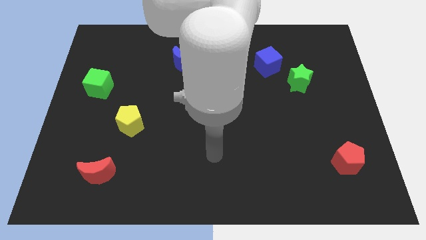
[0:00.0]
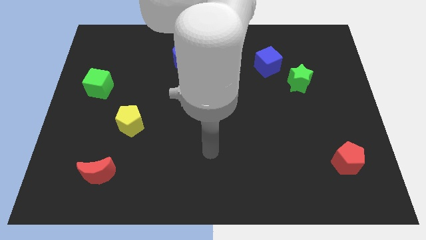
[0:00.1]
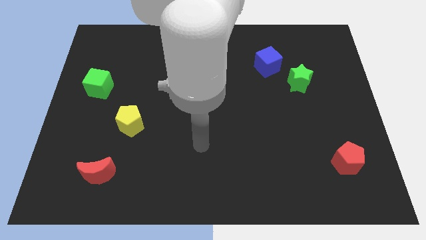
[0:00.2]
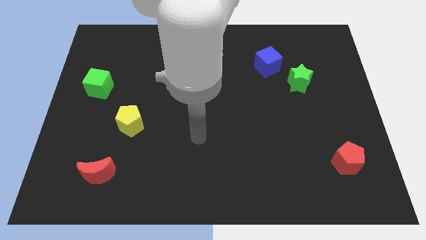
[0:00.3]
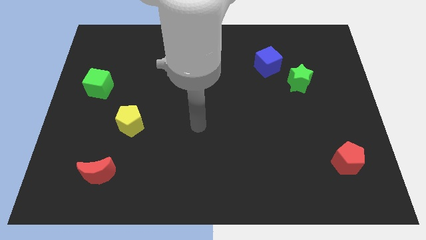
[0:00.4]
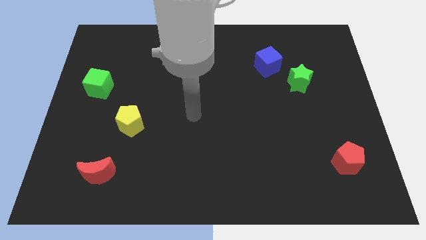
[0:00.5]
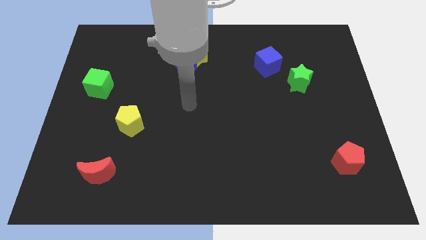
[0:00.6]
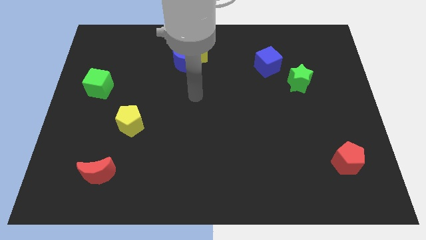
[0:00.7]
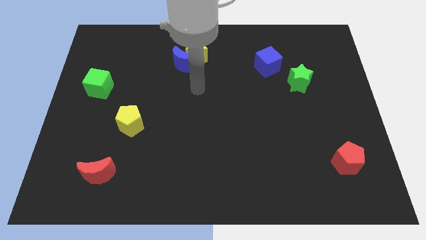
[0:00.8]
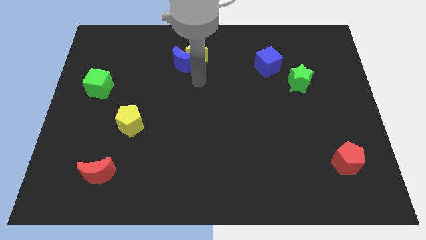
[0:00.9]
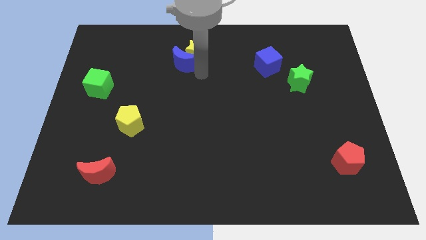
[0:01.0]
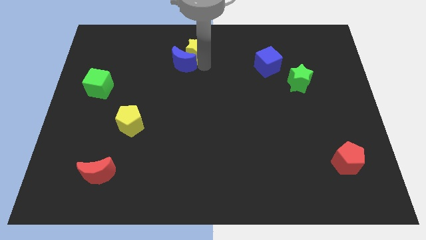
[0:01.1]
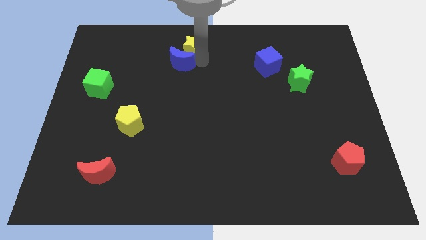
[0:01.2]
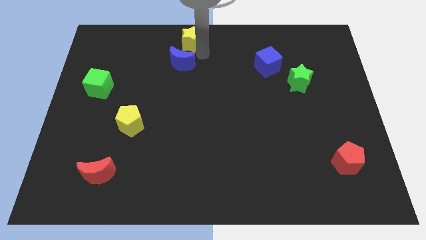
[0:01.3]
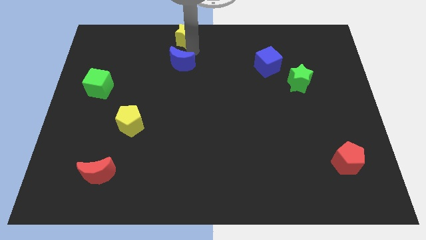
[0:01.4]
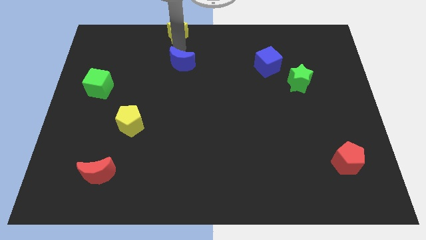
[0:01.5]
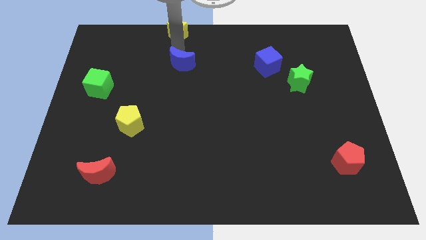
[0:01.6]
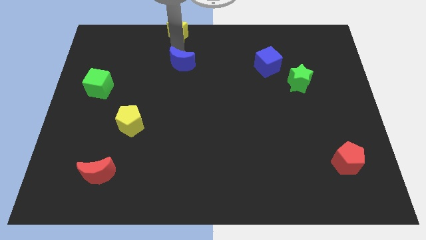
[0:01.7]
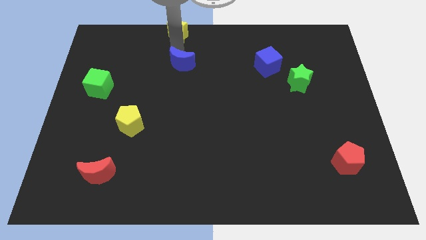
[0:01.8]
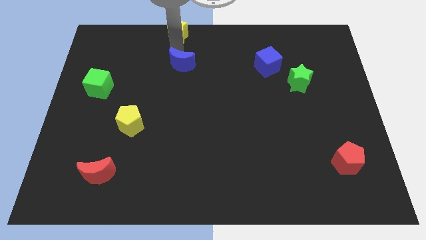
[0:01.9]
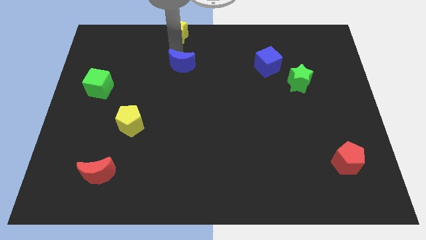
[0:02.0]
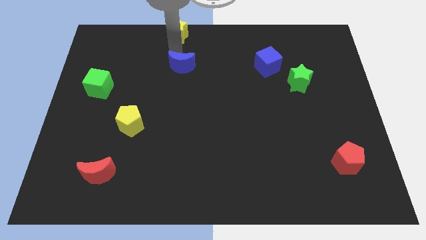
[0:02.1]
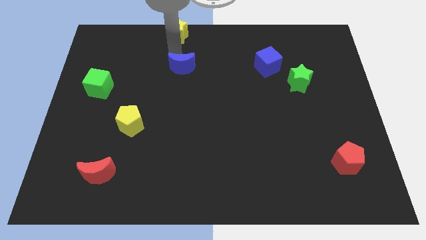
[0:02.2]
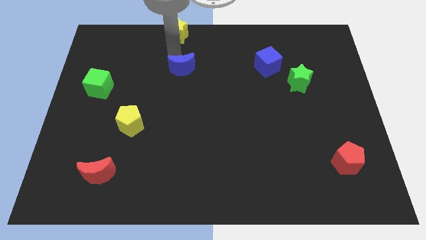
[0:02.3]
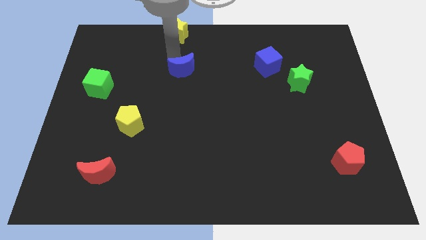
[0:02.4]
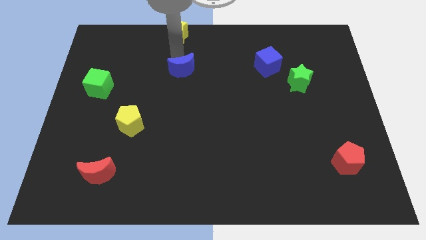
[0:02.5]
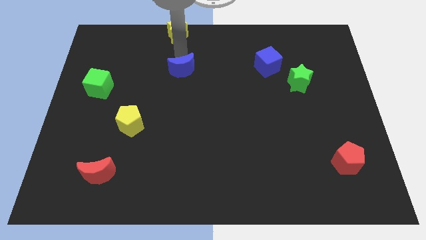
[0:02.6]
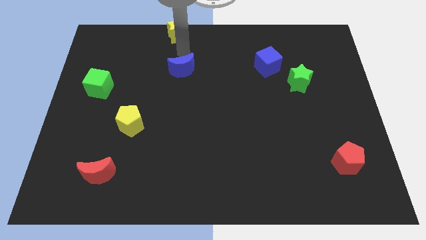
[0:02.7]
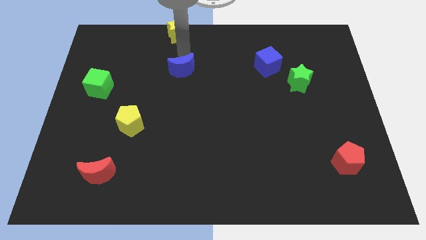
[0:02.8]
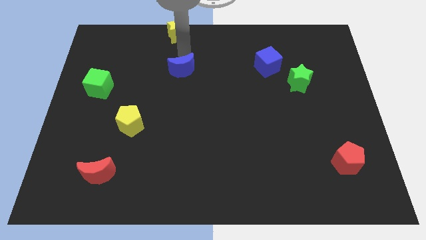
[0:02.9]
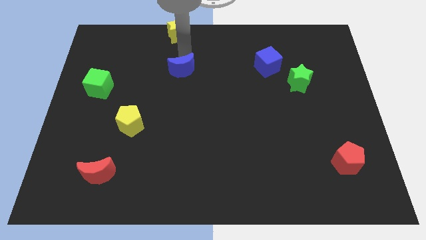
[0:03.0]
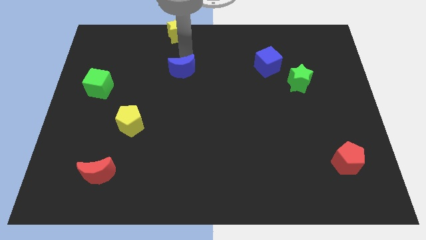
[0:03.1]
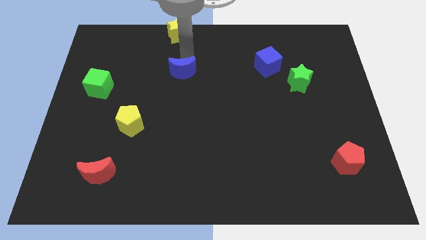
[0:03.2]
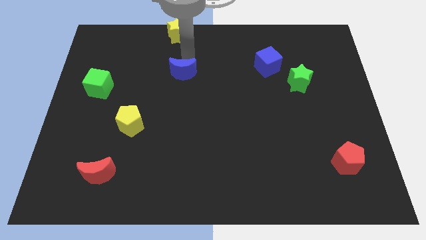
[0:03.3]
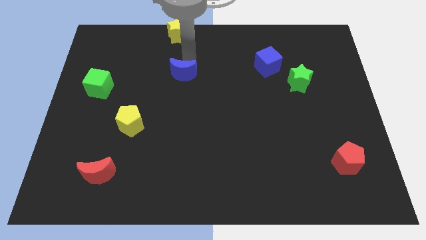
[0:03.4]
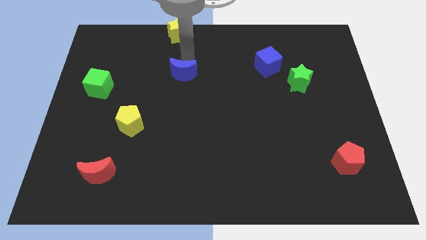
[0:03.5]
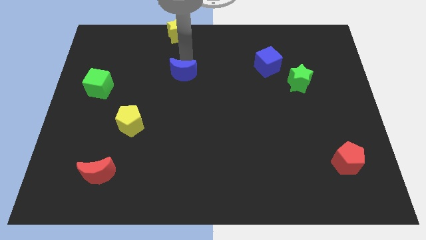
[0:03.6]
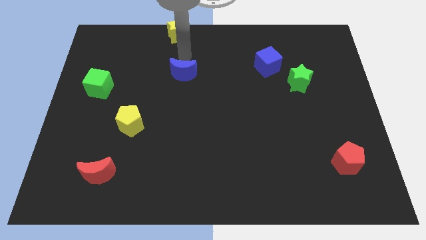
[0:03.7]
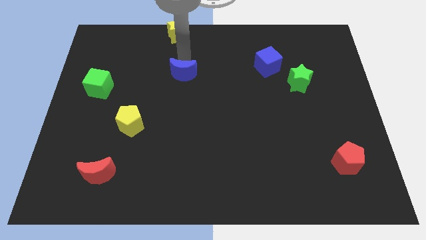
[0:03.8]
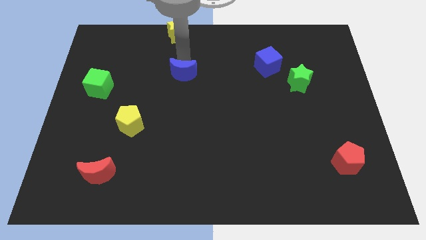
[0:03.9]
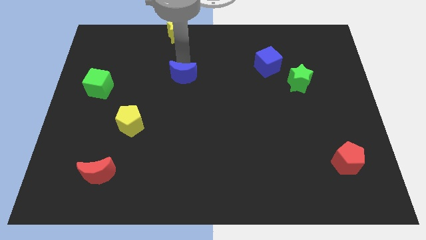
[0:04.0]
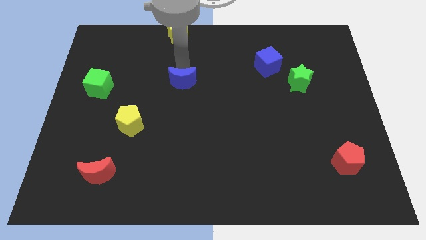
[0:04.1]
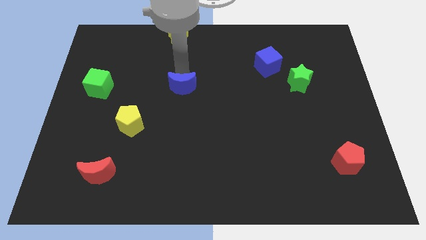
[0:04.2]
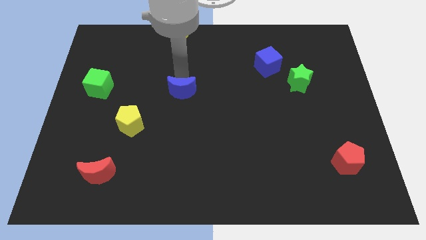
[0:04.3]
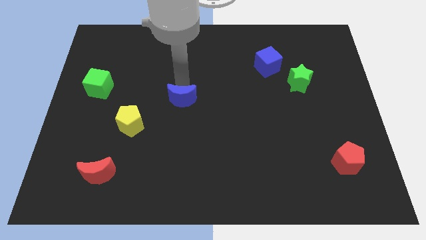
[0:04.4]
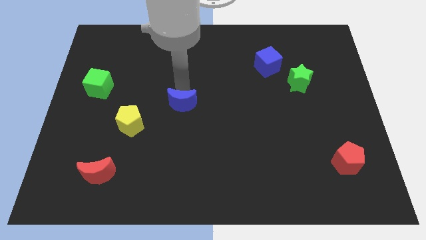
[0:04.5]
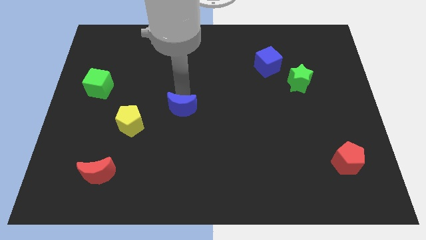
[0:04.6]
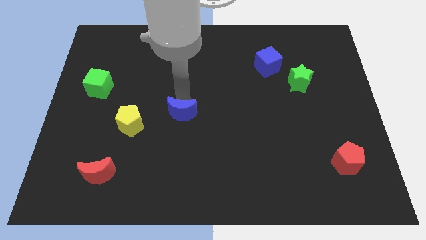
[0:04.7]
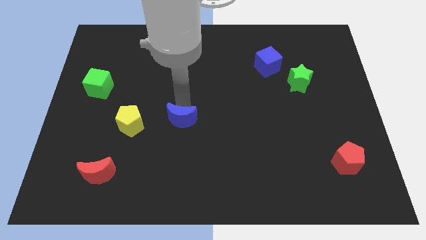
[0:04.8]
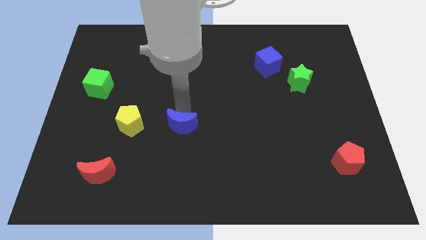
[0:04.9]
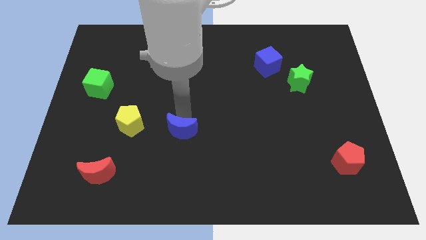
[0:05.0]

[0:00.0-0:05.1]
slide the blue moon downwards

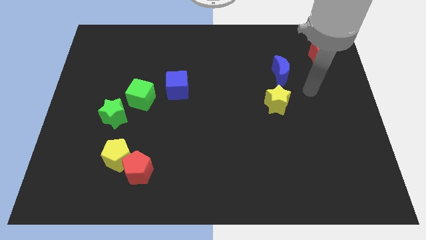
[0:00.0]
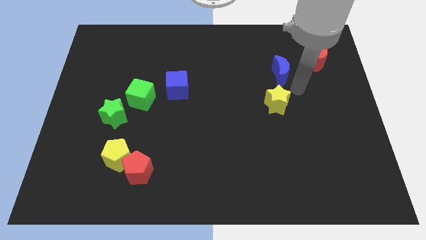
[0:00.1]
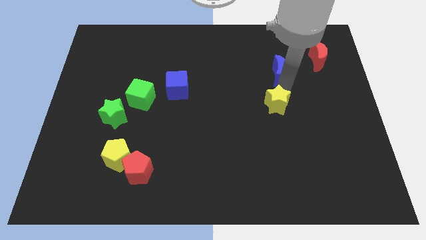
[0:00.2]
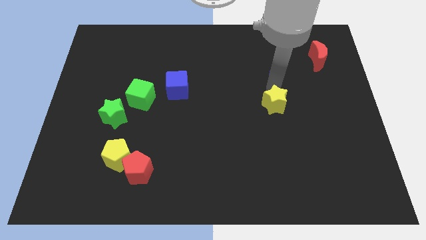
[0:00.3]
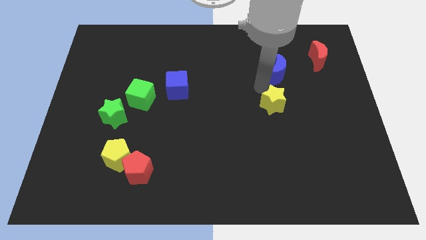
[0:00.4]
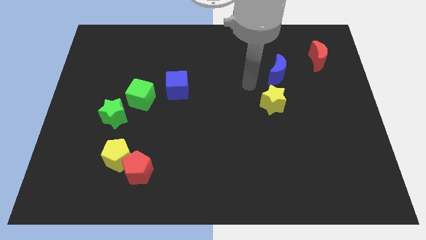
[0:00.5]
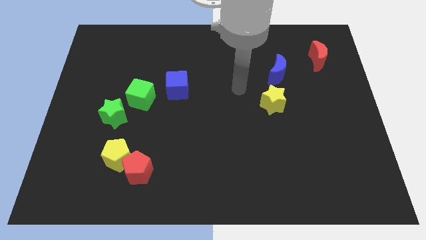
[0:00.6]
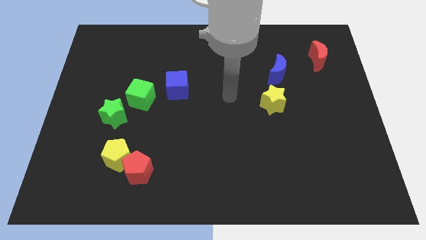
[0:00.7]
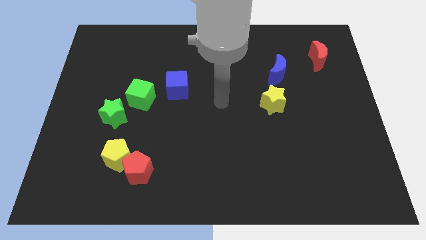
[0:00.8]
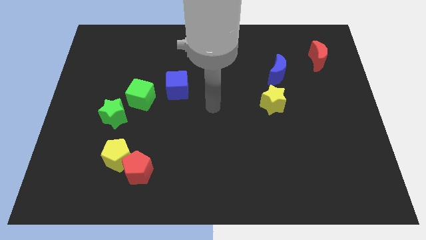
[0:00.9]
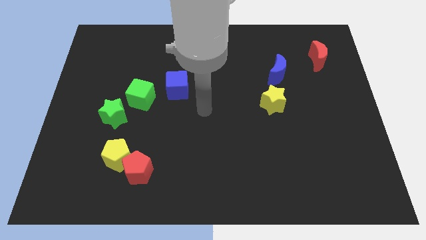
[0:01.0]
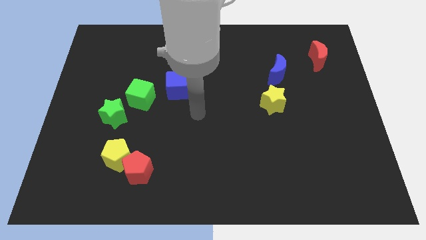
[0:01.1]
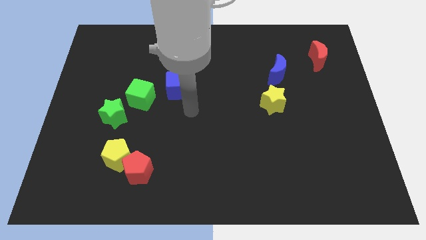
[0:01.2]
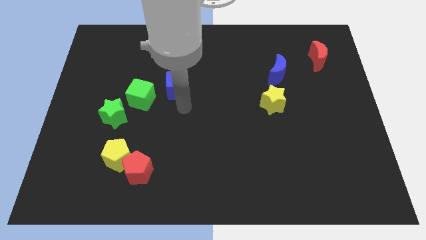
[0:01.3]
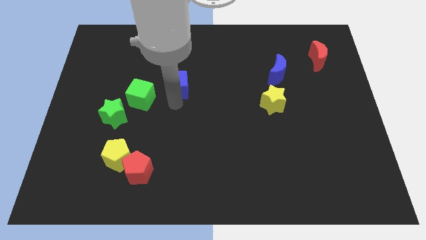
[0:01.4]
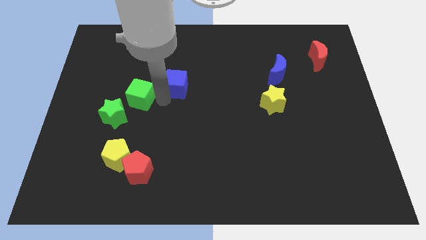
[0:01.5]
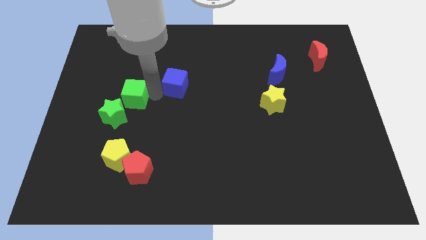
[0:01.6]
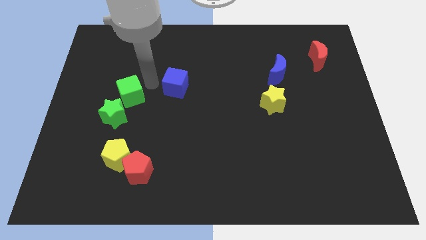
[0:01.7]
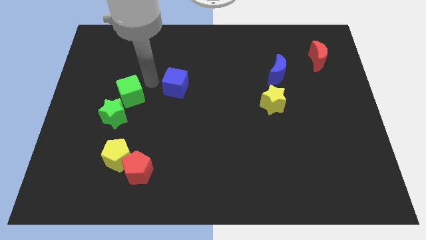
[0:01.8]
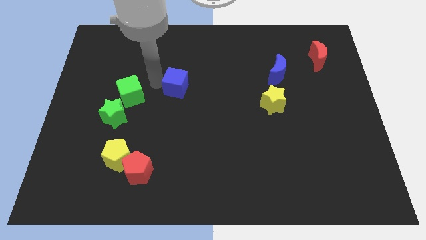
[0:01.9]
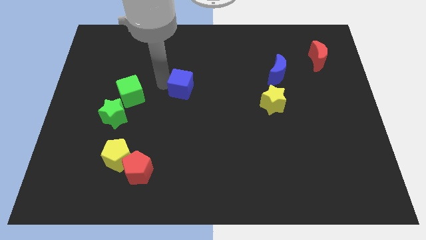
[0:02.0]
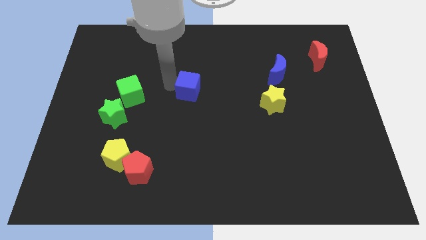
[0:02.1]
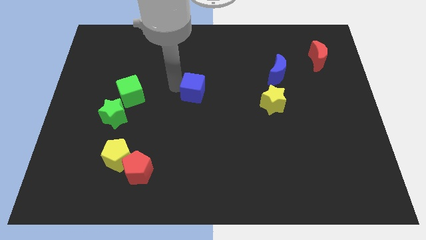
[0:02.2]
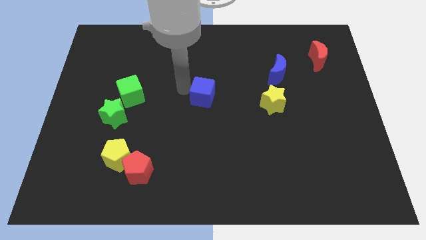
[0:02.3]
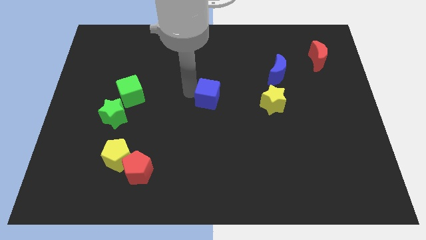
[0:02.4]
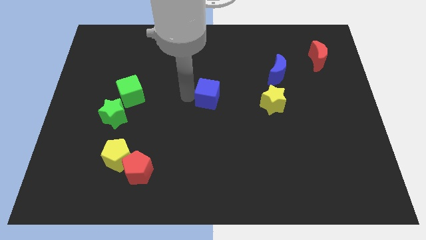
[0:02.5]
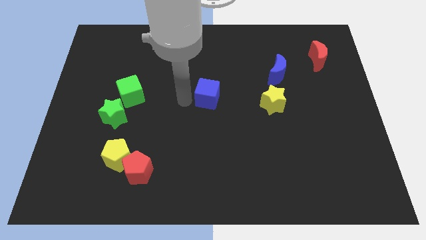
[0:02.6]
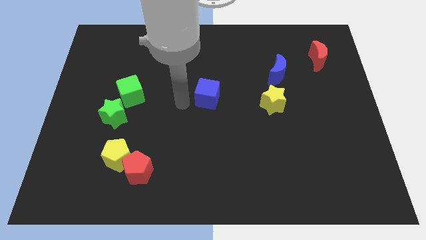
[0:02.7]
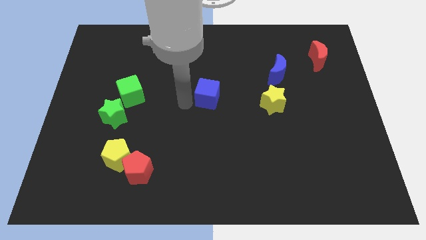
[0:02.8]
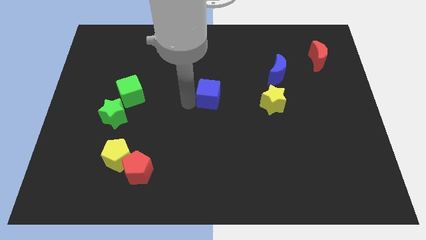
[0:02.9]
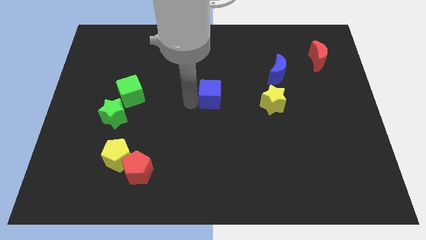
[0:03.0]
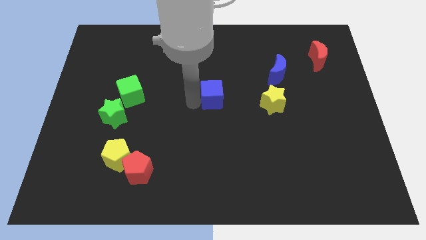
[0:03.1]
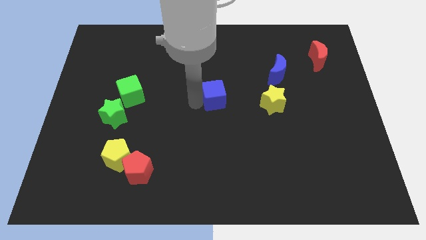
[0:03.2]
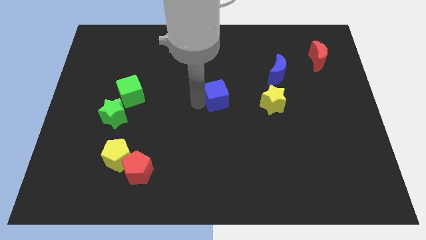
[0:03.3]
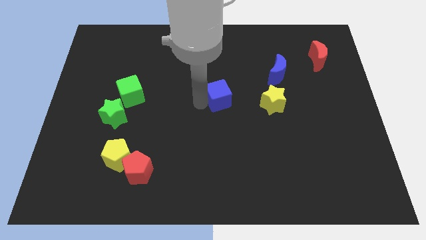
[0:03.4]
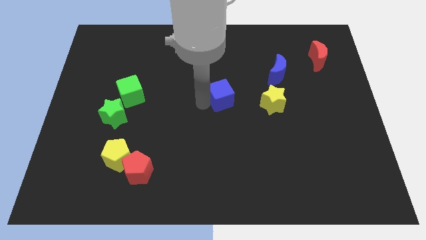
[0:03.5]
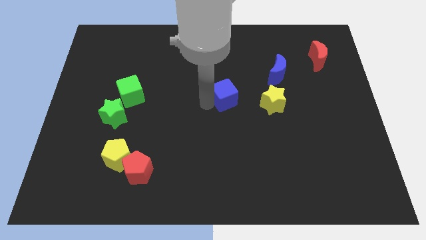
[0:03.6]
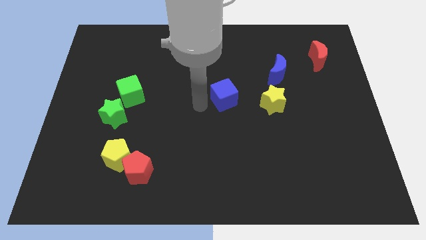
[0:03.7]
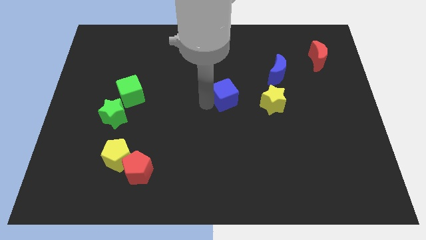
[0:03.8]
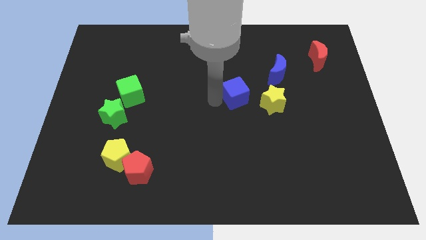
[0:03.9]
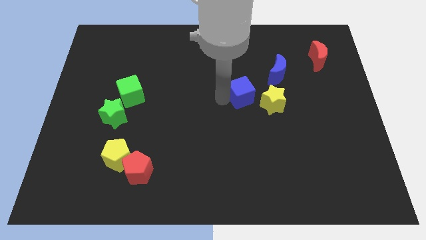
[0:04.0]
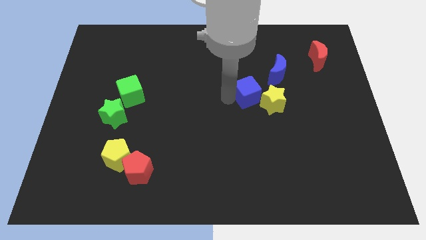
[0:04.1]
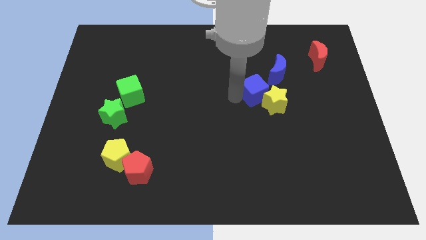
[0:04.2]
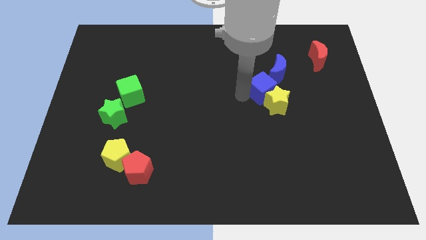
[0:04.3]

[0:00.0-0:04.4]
move the blue cube to the right
